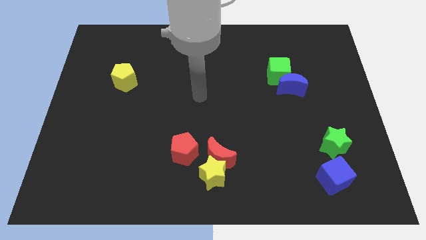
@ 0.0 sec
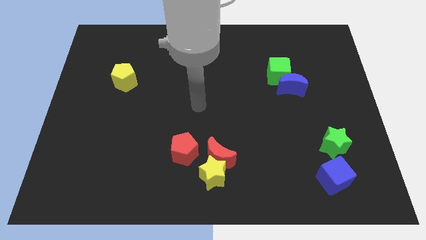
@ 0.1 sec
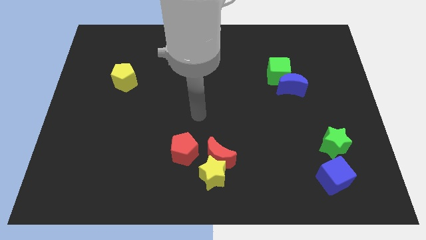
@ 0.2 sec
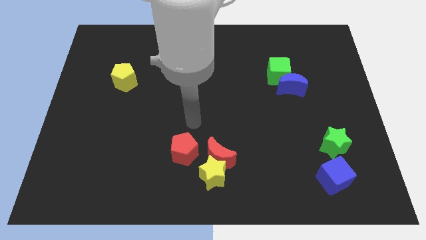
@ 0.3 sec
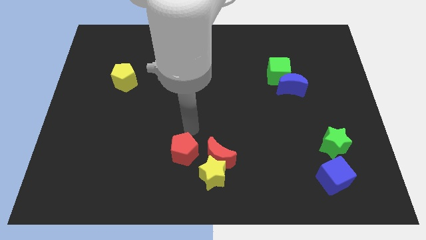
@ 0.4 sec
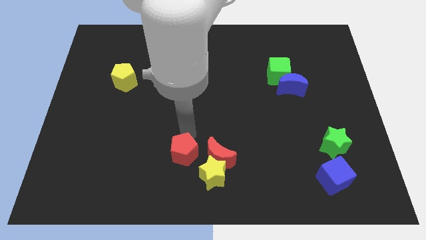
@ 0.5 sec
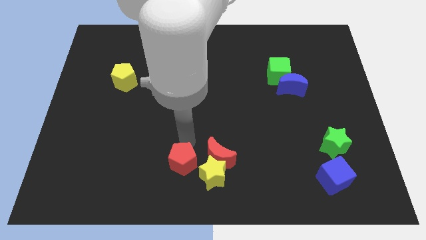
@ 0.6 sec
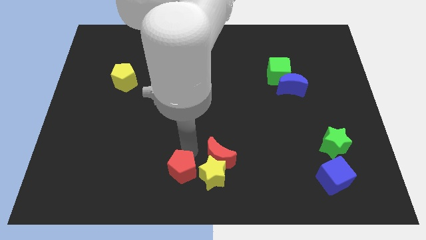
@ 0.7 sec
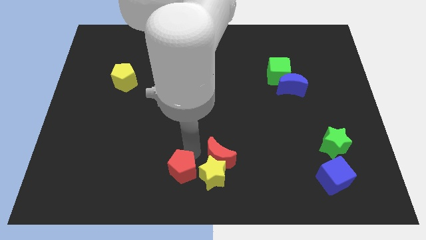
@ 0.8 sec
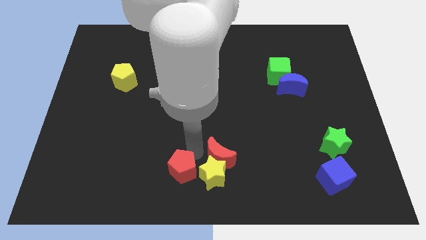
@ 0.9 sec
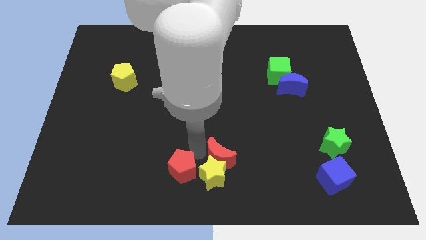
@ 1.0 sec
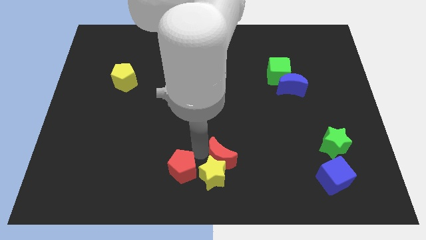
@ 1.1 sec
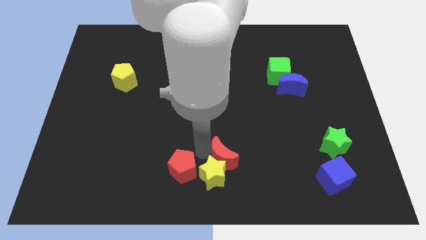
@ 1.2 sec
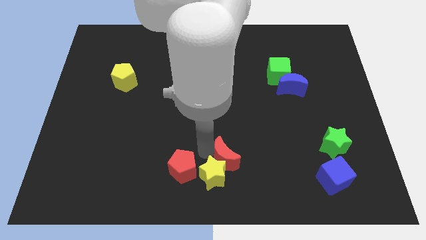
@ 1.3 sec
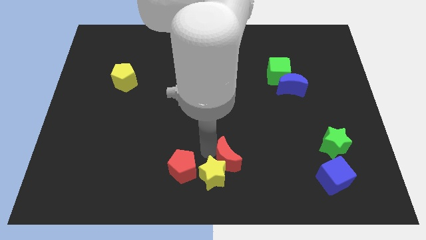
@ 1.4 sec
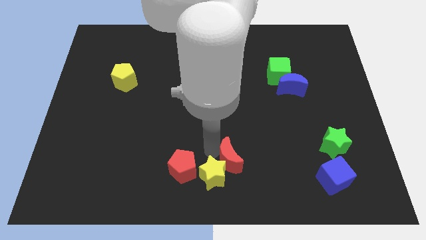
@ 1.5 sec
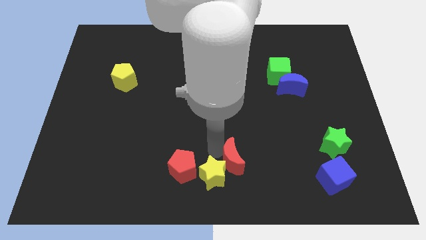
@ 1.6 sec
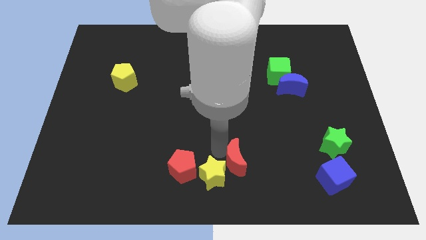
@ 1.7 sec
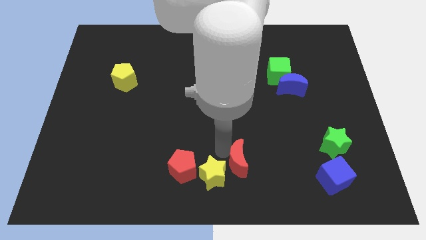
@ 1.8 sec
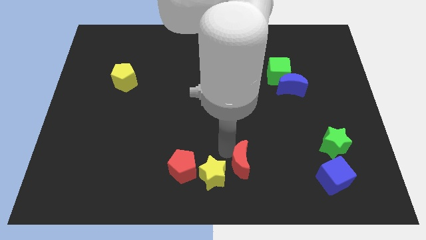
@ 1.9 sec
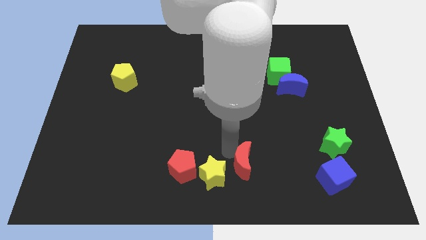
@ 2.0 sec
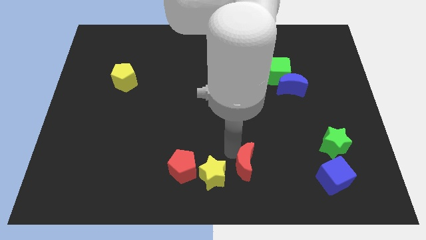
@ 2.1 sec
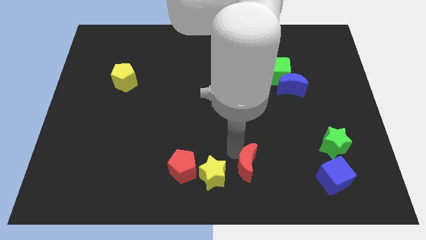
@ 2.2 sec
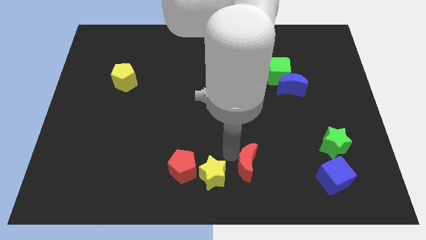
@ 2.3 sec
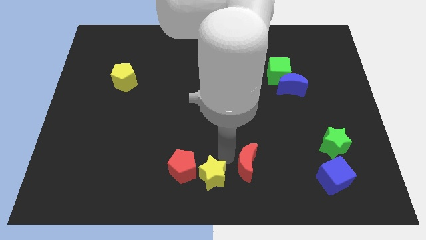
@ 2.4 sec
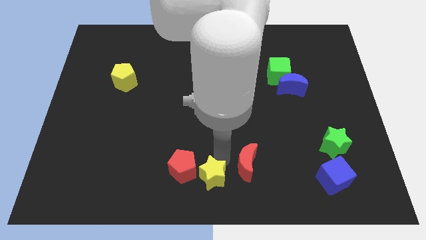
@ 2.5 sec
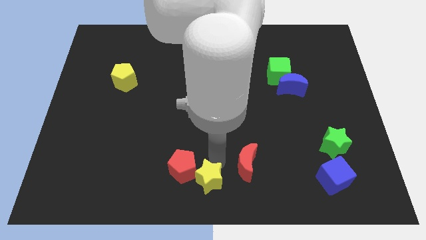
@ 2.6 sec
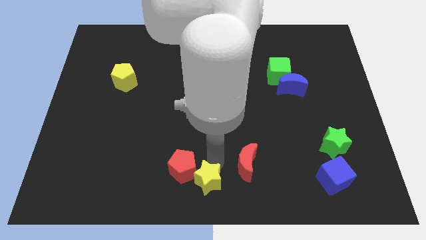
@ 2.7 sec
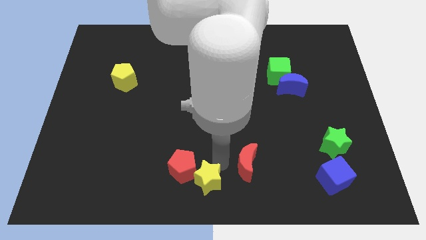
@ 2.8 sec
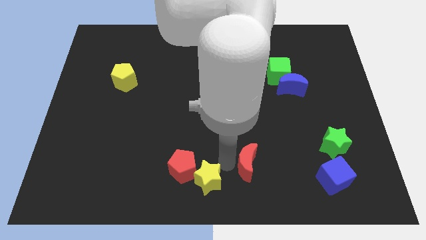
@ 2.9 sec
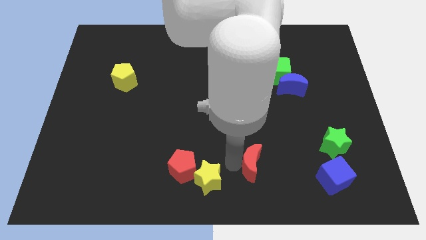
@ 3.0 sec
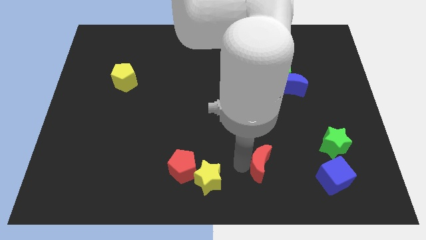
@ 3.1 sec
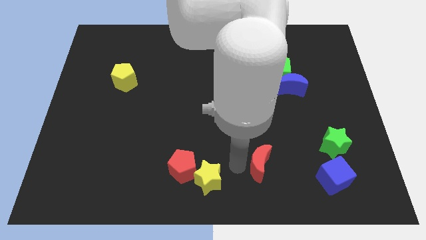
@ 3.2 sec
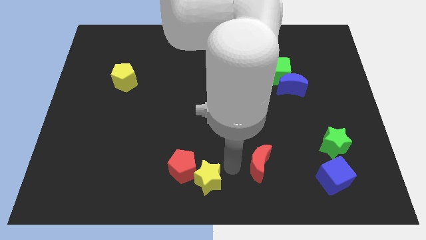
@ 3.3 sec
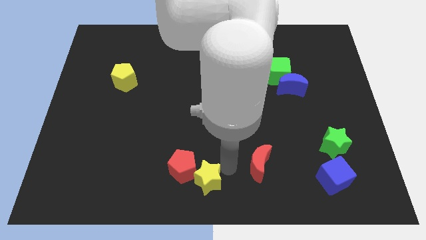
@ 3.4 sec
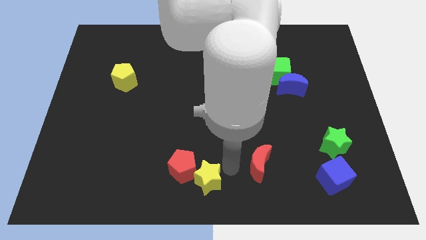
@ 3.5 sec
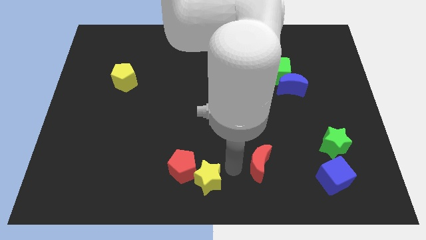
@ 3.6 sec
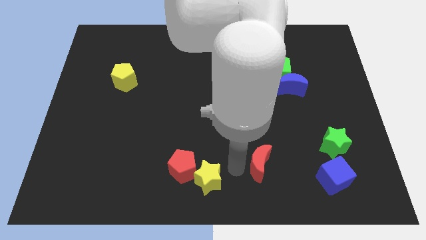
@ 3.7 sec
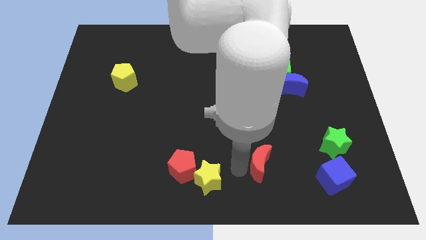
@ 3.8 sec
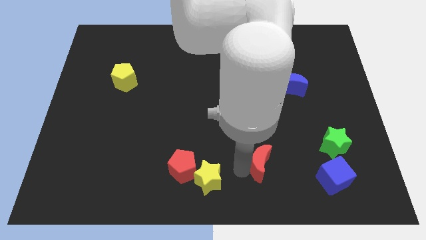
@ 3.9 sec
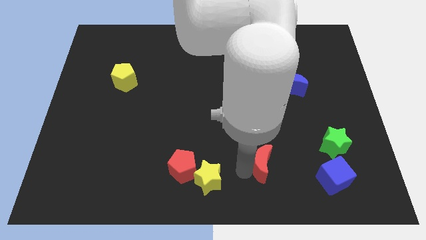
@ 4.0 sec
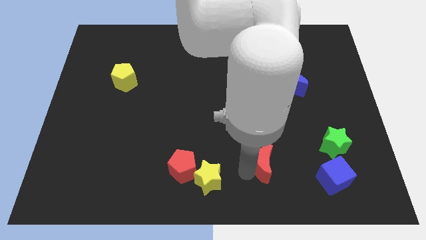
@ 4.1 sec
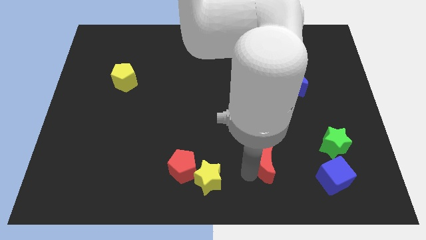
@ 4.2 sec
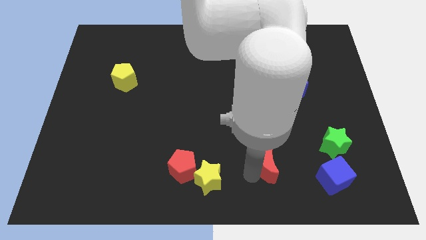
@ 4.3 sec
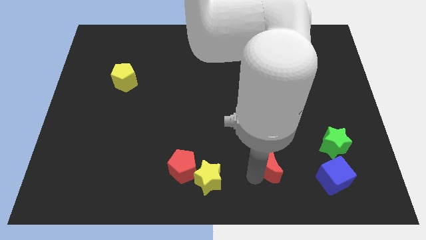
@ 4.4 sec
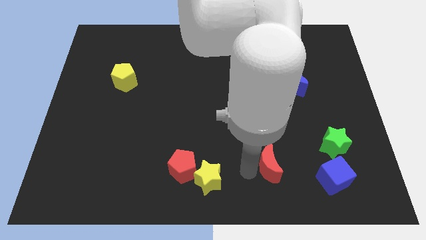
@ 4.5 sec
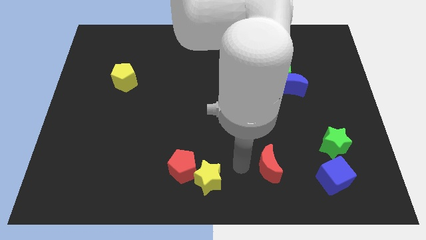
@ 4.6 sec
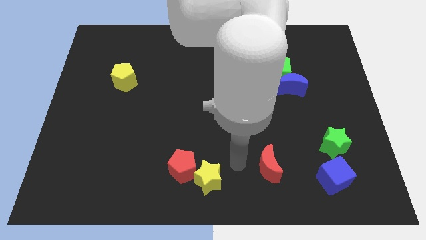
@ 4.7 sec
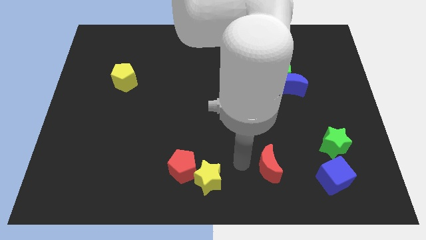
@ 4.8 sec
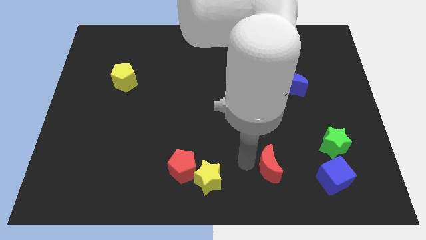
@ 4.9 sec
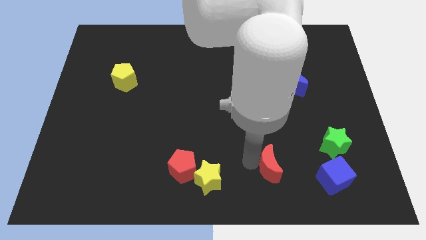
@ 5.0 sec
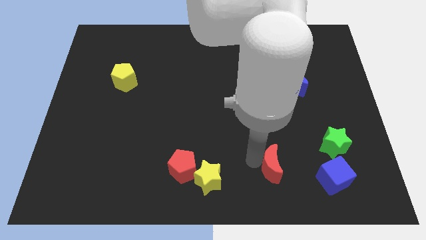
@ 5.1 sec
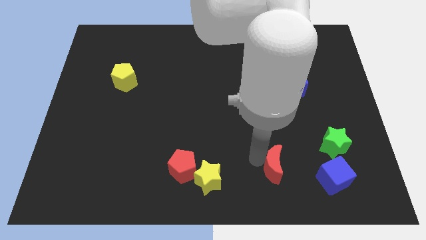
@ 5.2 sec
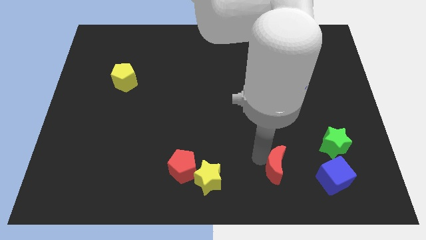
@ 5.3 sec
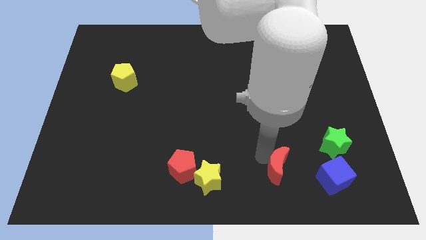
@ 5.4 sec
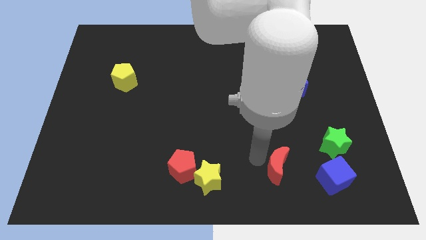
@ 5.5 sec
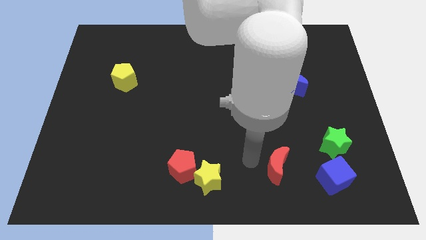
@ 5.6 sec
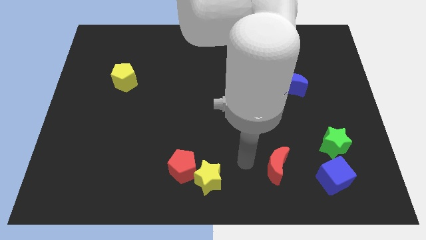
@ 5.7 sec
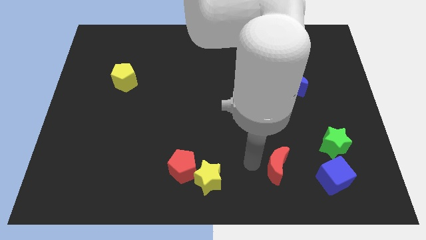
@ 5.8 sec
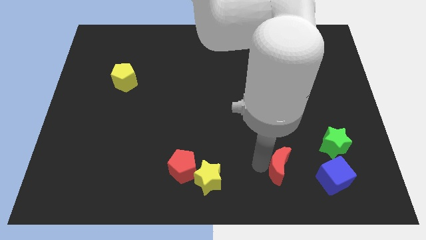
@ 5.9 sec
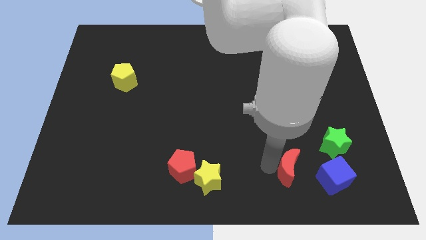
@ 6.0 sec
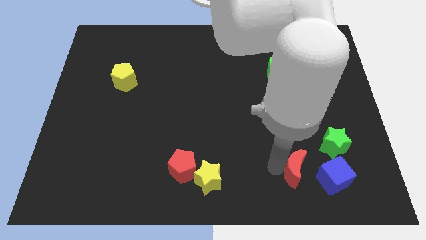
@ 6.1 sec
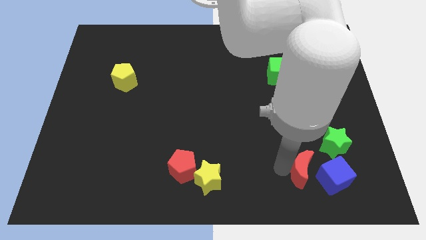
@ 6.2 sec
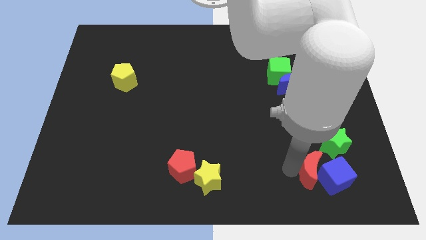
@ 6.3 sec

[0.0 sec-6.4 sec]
slide the red moon next to the blue cube

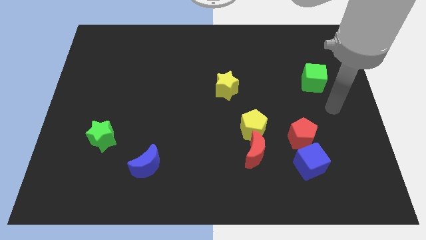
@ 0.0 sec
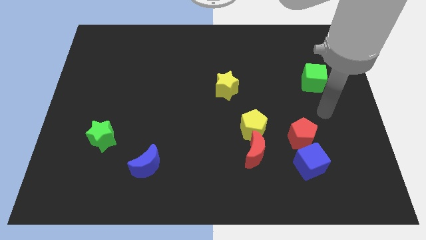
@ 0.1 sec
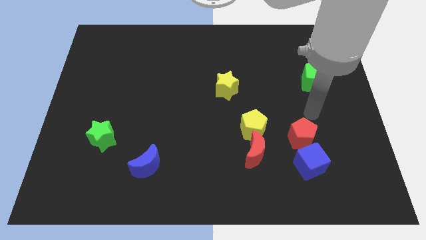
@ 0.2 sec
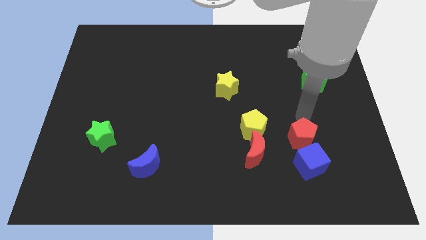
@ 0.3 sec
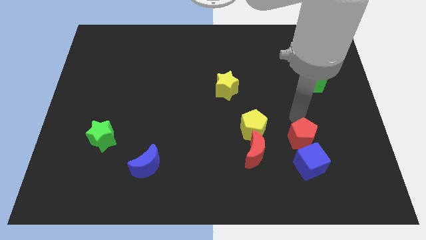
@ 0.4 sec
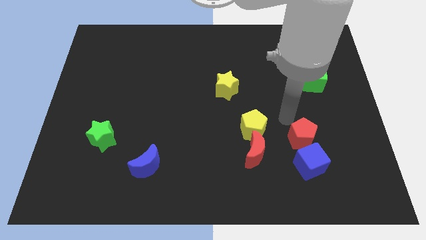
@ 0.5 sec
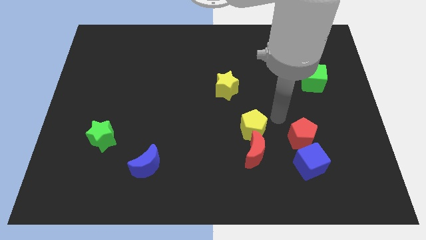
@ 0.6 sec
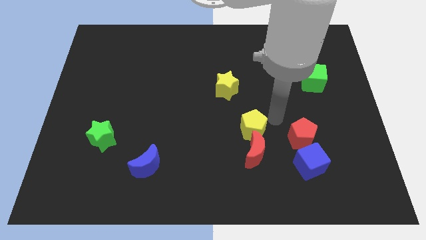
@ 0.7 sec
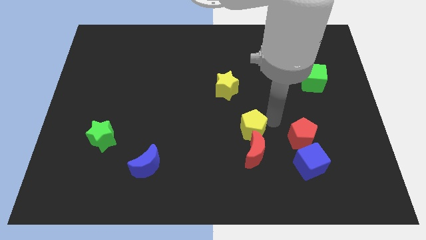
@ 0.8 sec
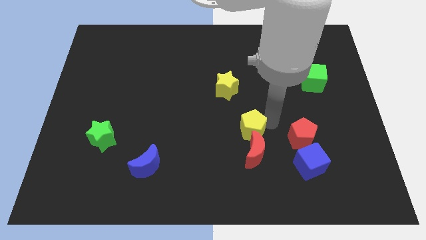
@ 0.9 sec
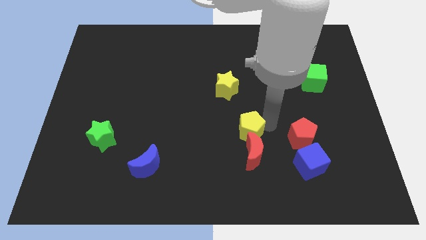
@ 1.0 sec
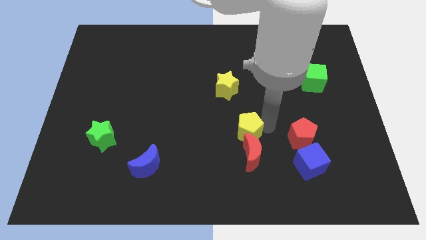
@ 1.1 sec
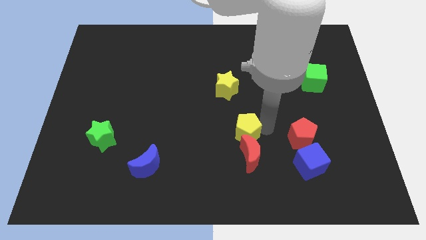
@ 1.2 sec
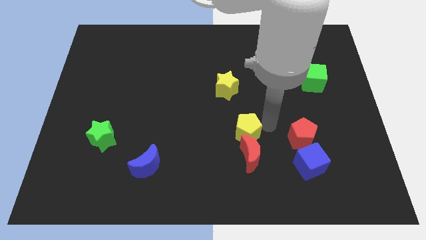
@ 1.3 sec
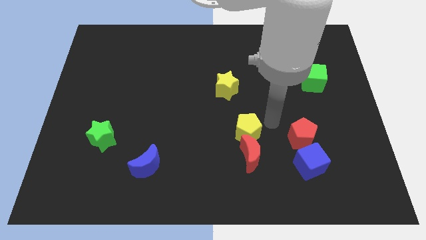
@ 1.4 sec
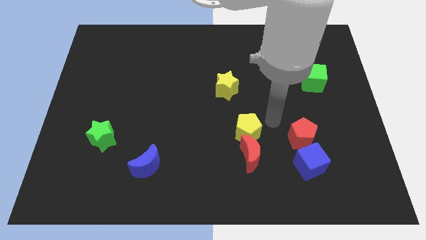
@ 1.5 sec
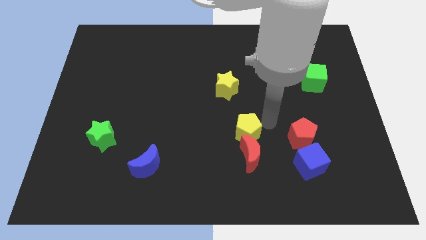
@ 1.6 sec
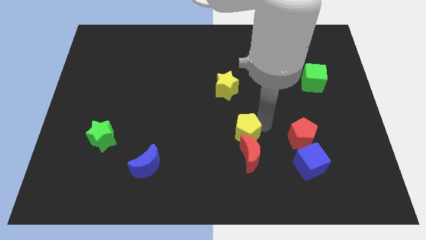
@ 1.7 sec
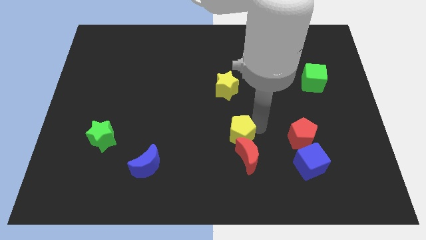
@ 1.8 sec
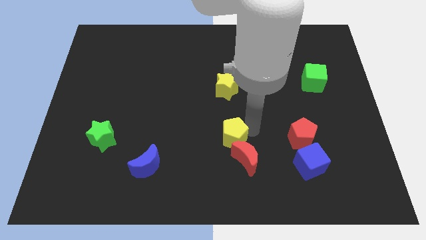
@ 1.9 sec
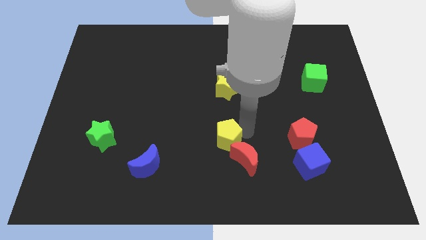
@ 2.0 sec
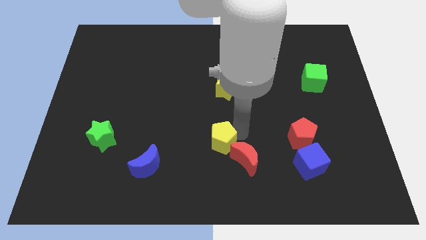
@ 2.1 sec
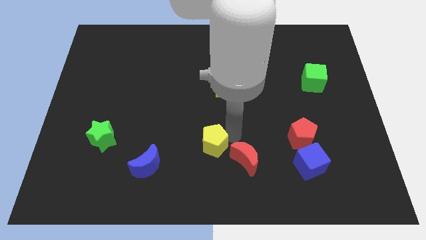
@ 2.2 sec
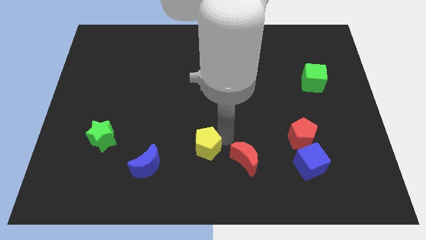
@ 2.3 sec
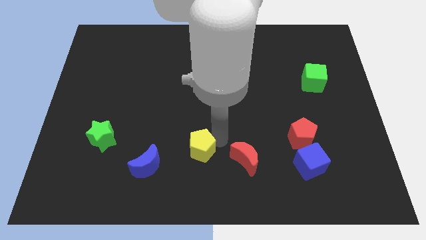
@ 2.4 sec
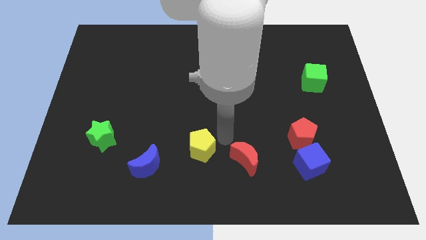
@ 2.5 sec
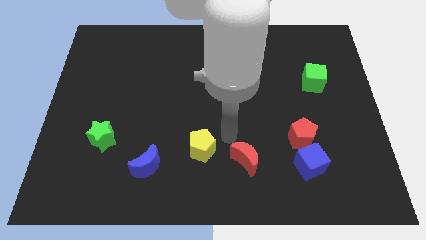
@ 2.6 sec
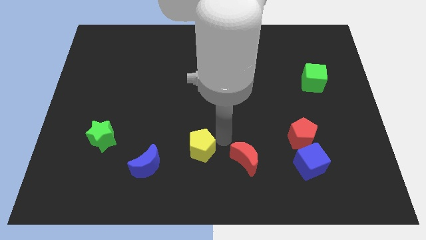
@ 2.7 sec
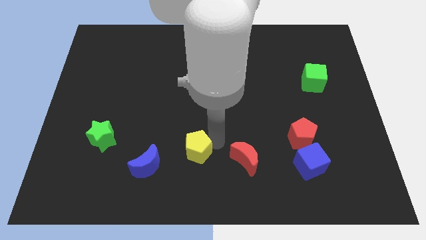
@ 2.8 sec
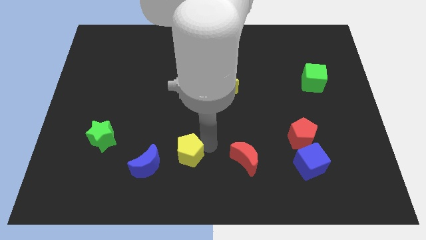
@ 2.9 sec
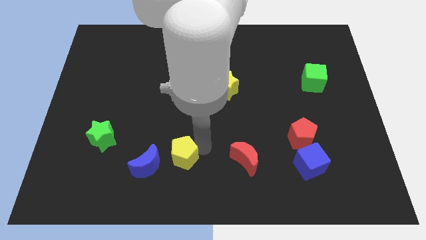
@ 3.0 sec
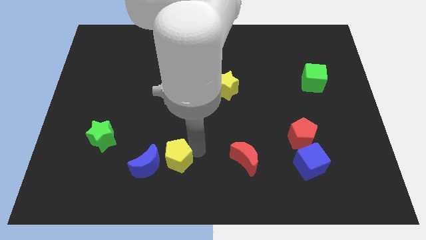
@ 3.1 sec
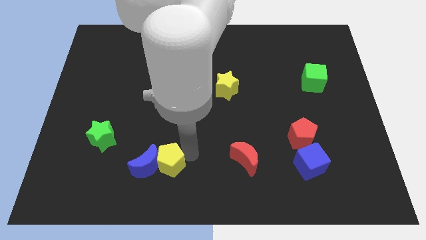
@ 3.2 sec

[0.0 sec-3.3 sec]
put the yellow pentagon towards the blue moon
